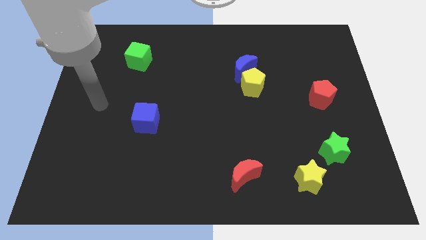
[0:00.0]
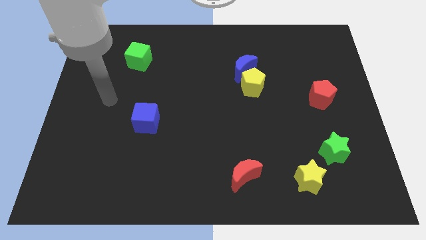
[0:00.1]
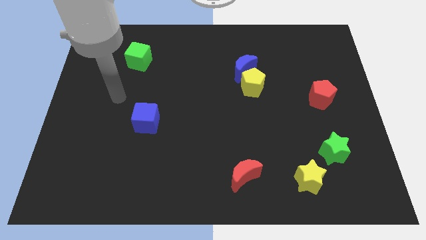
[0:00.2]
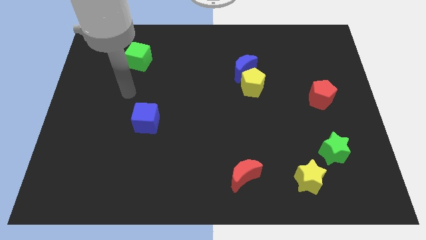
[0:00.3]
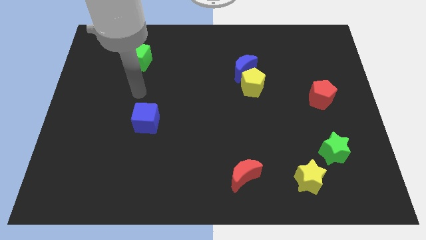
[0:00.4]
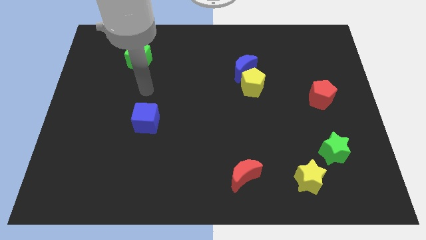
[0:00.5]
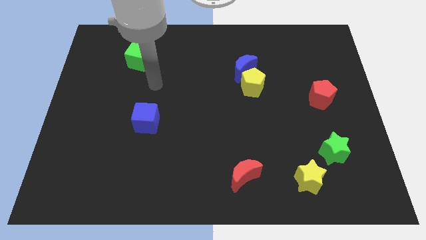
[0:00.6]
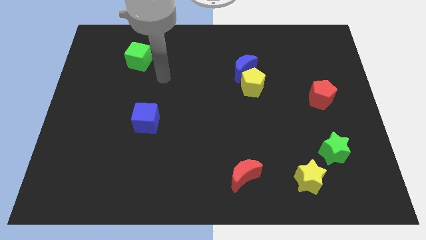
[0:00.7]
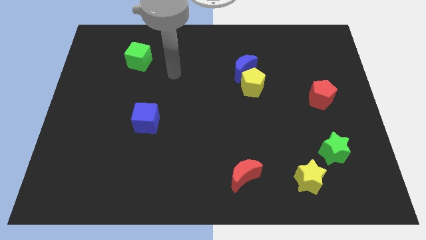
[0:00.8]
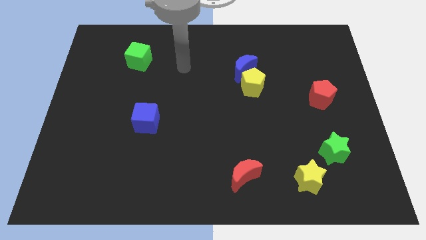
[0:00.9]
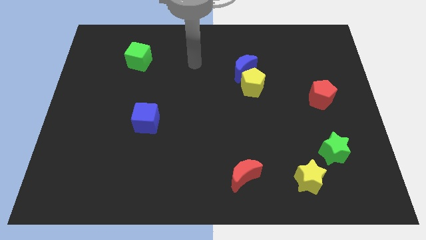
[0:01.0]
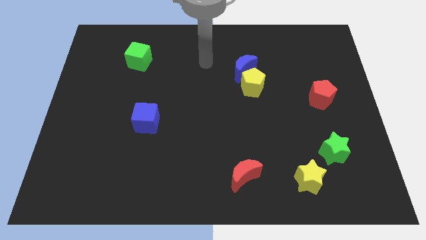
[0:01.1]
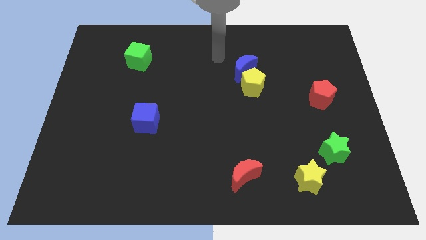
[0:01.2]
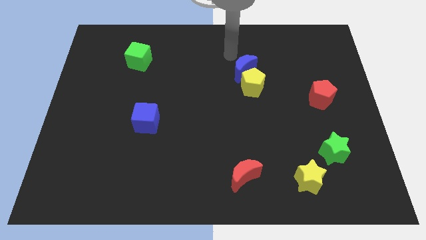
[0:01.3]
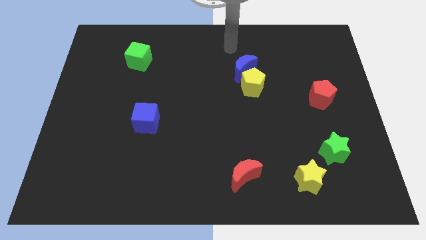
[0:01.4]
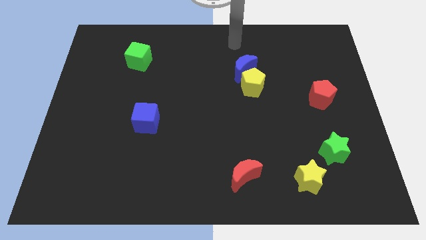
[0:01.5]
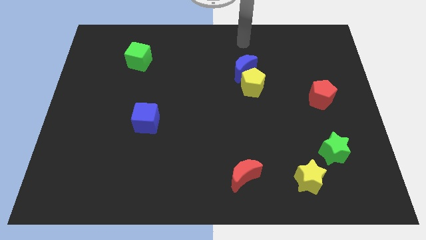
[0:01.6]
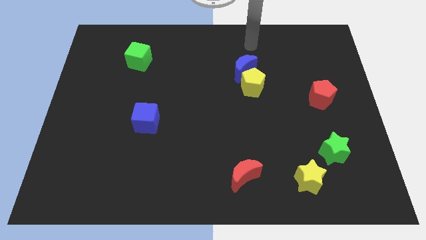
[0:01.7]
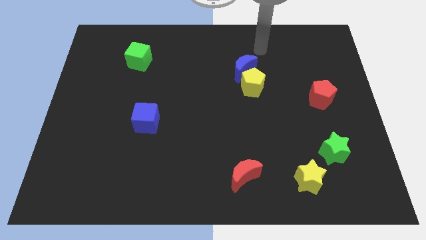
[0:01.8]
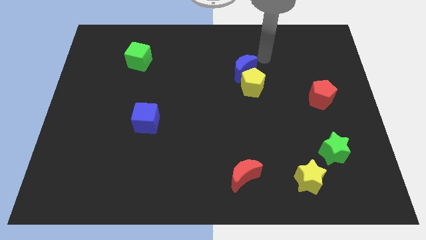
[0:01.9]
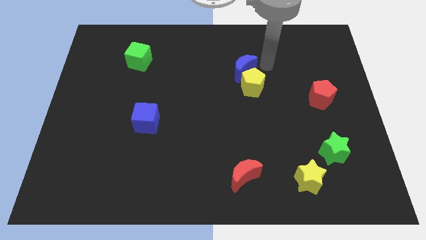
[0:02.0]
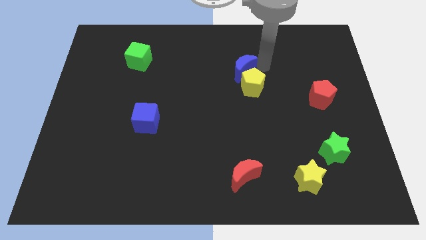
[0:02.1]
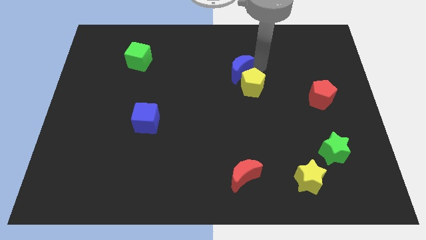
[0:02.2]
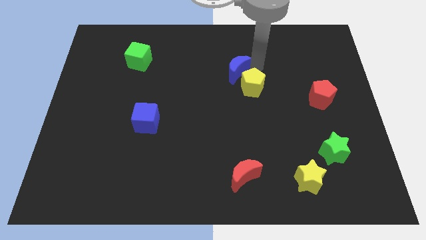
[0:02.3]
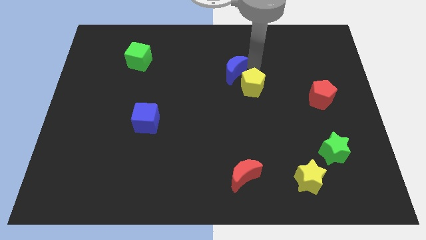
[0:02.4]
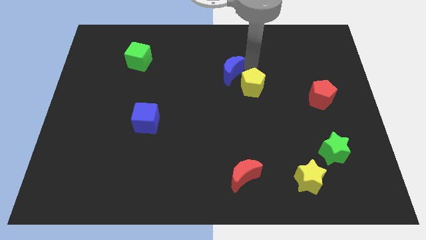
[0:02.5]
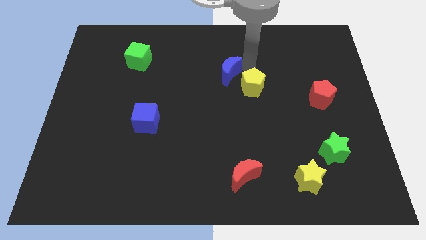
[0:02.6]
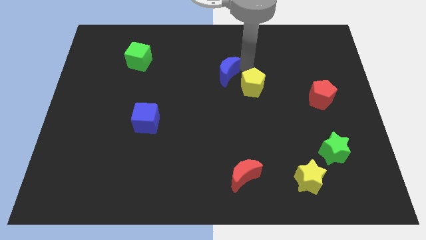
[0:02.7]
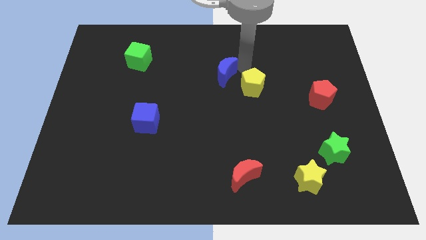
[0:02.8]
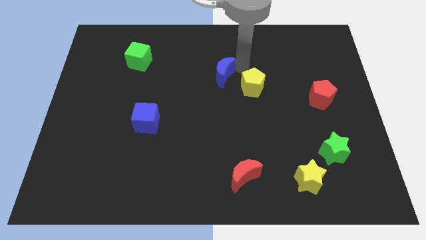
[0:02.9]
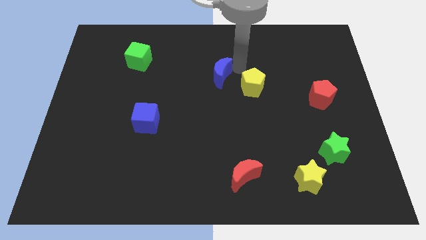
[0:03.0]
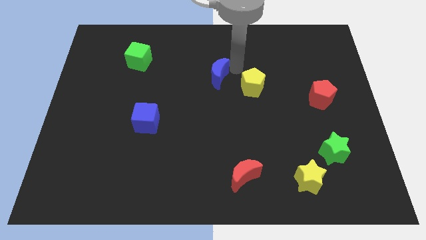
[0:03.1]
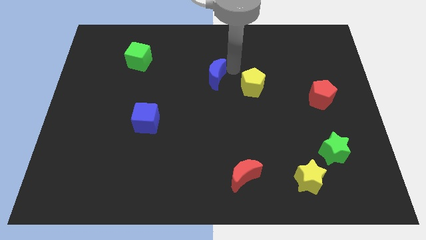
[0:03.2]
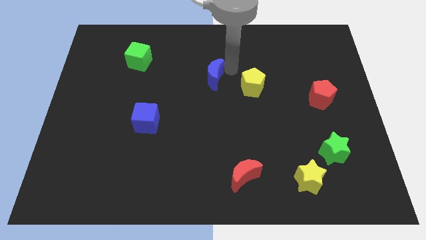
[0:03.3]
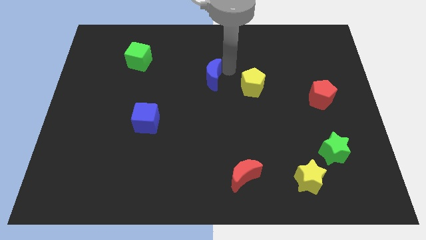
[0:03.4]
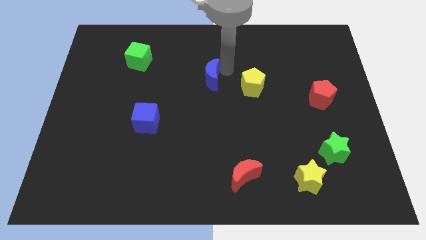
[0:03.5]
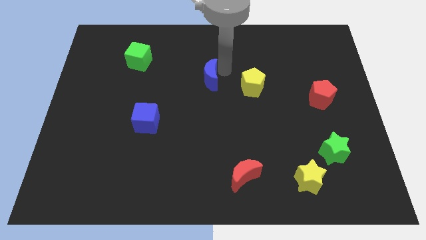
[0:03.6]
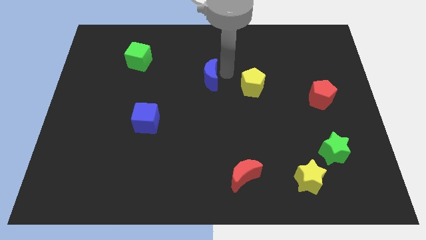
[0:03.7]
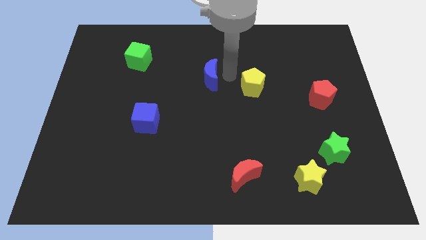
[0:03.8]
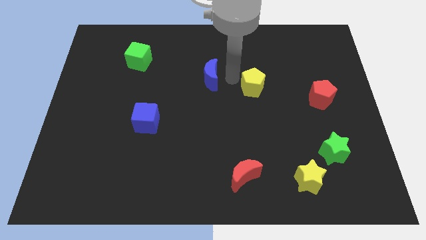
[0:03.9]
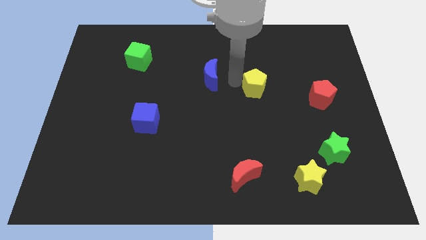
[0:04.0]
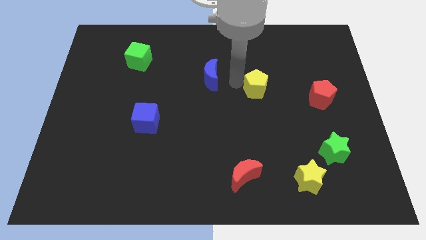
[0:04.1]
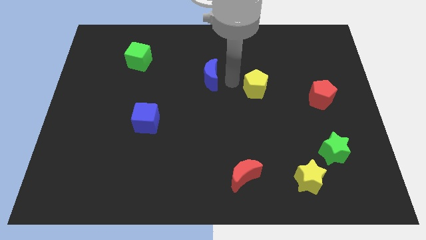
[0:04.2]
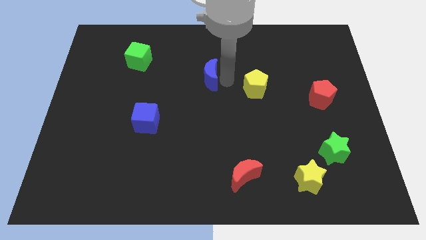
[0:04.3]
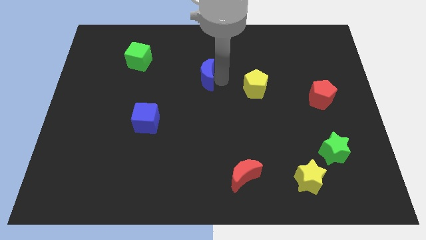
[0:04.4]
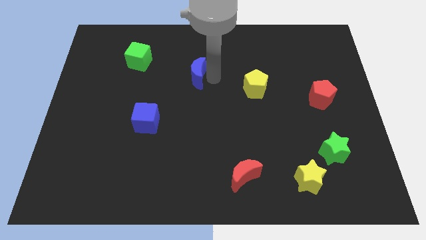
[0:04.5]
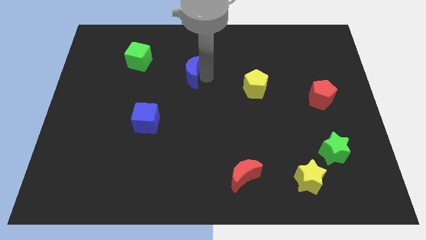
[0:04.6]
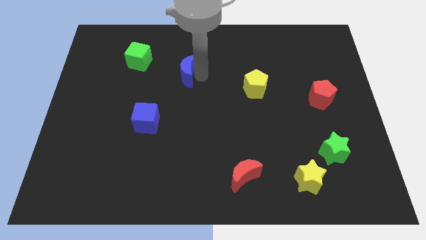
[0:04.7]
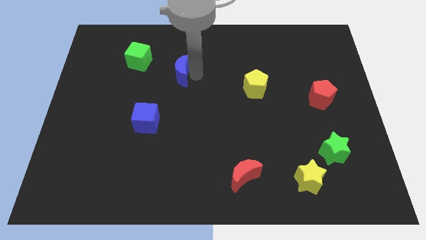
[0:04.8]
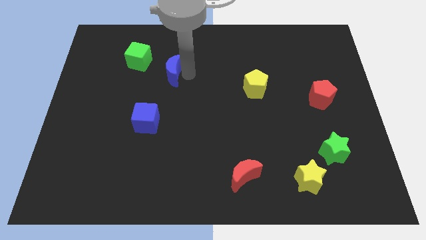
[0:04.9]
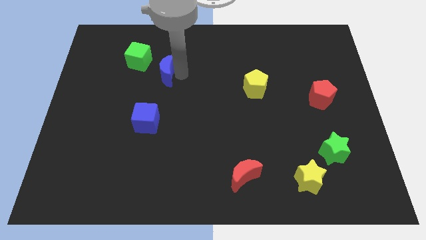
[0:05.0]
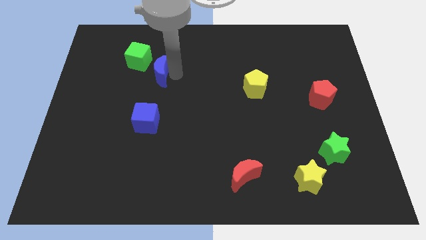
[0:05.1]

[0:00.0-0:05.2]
slide the blue moon to the left

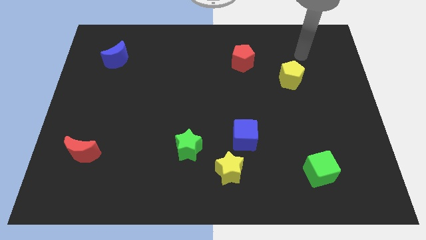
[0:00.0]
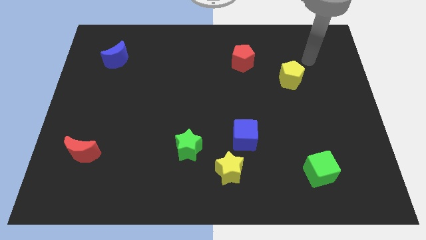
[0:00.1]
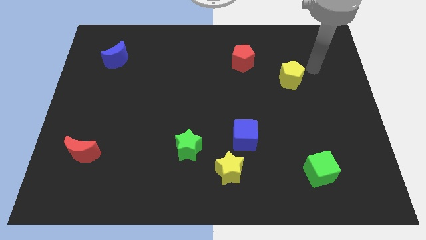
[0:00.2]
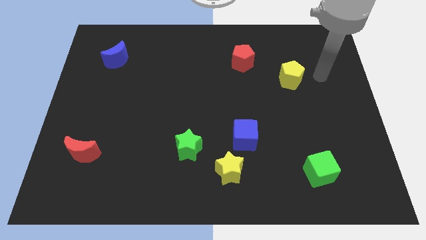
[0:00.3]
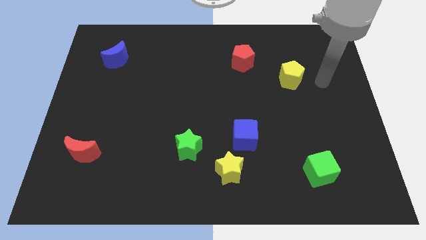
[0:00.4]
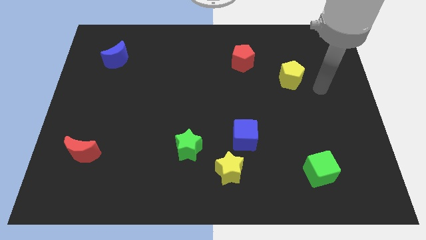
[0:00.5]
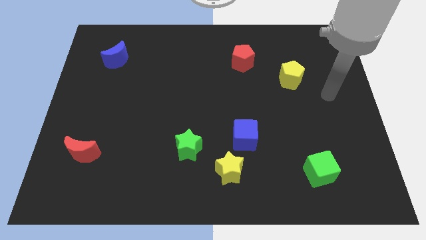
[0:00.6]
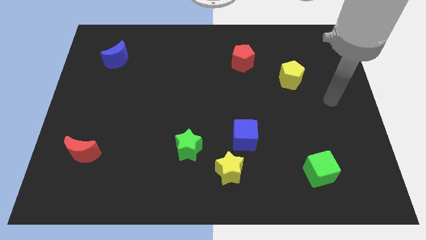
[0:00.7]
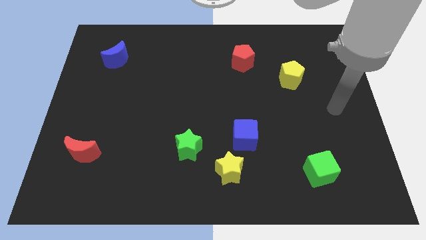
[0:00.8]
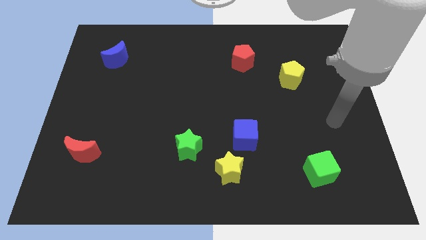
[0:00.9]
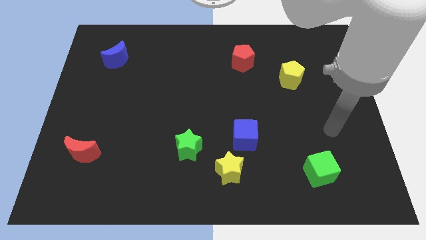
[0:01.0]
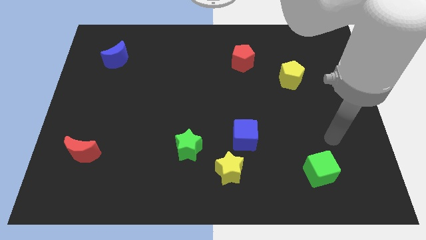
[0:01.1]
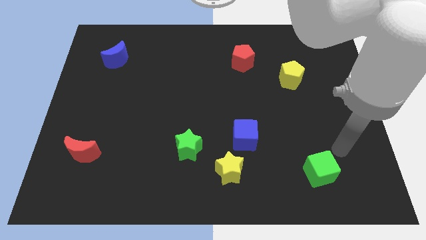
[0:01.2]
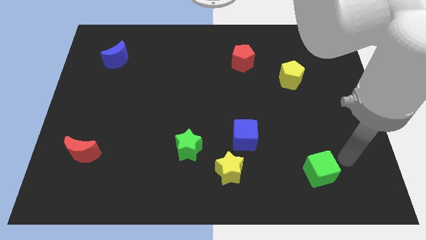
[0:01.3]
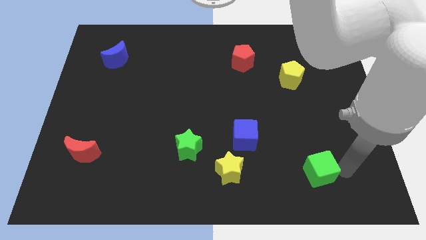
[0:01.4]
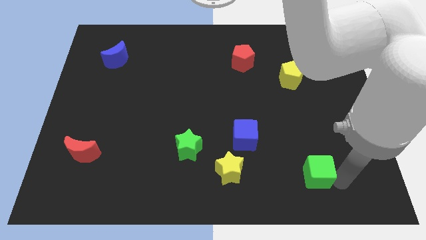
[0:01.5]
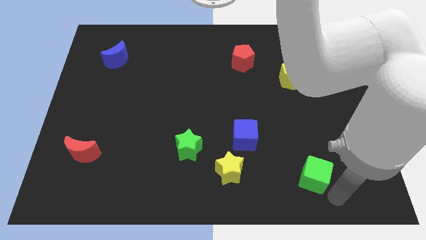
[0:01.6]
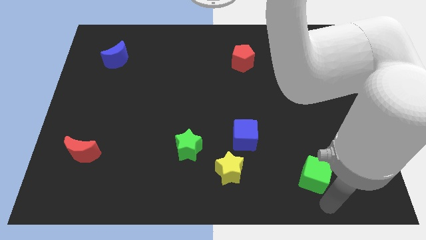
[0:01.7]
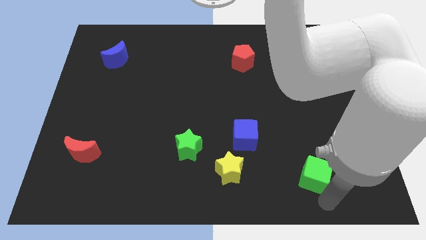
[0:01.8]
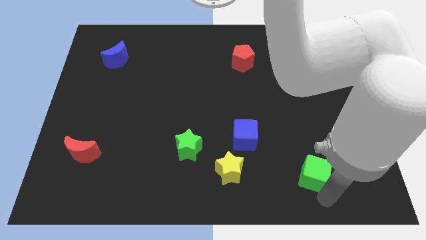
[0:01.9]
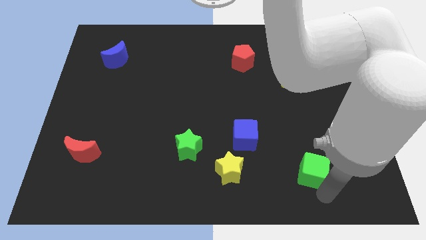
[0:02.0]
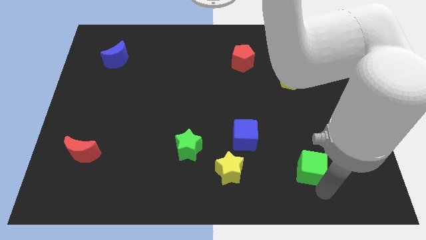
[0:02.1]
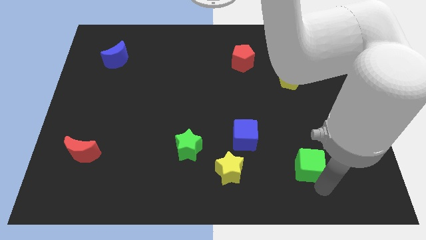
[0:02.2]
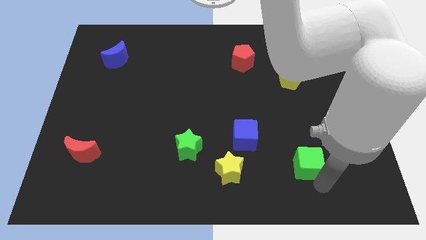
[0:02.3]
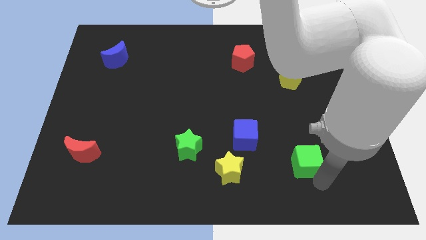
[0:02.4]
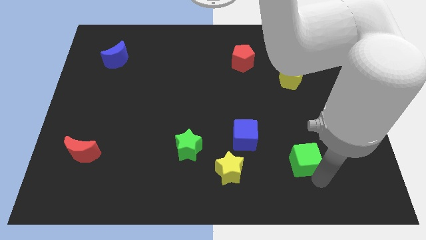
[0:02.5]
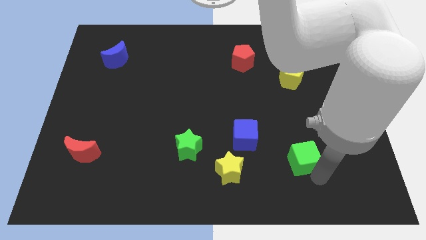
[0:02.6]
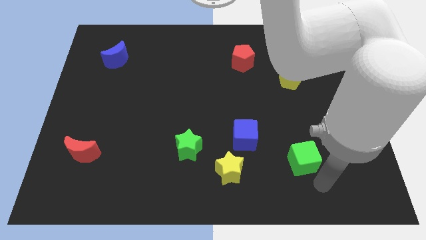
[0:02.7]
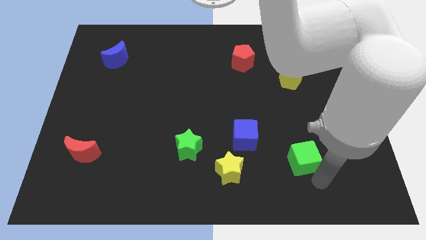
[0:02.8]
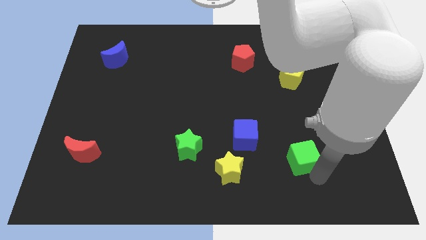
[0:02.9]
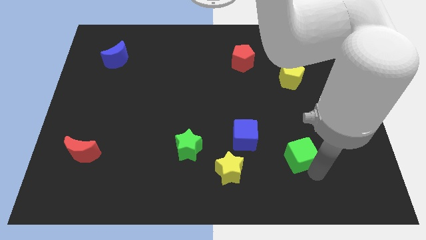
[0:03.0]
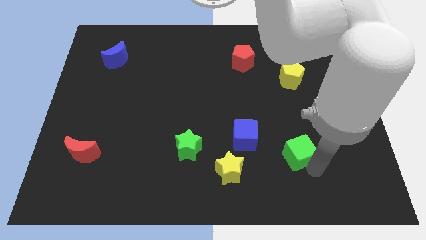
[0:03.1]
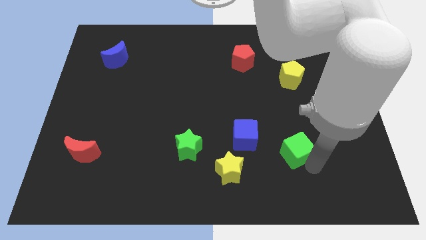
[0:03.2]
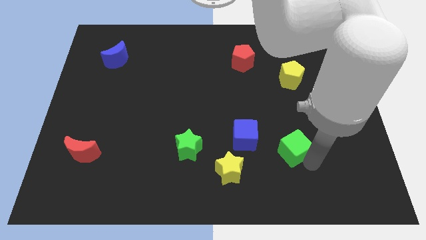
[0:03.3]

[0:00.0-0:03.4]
push the green cube up and left diagonally slightly
